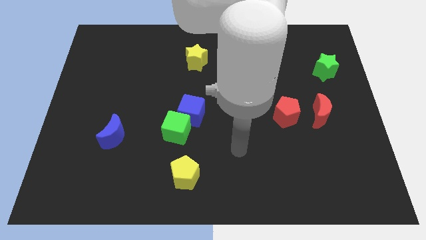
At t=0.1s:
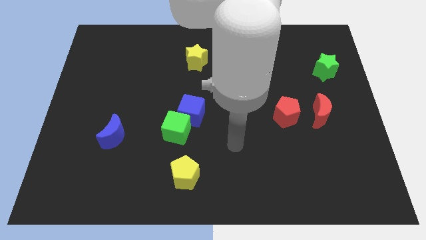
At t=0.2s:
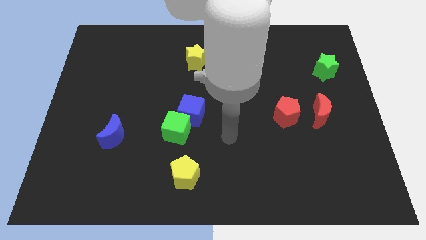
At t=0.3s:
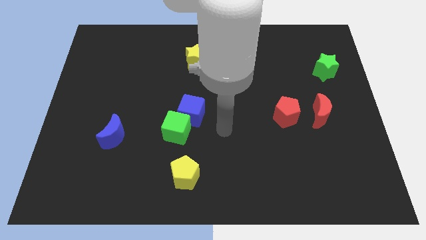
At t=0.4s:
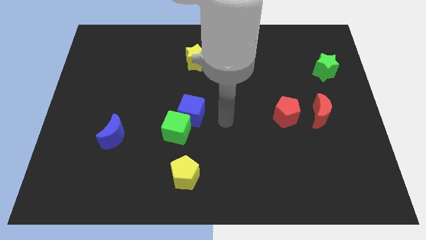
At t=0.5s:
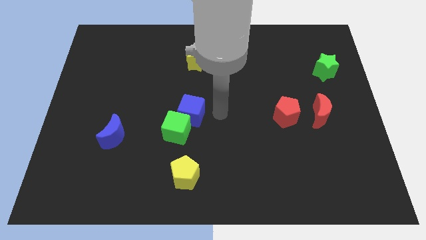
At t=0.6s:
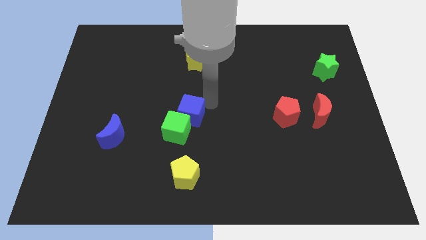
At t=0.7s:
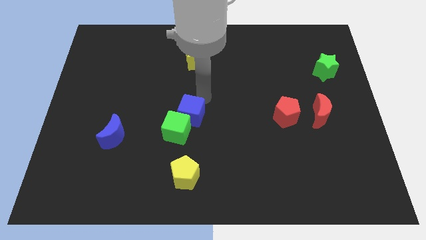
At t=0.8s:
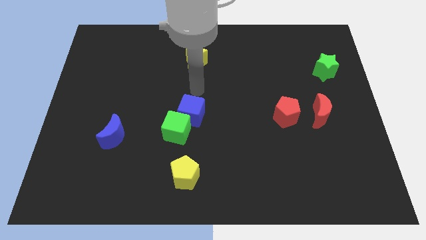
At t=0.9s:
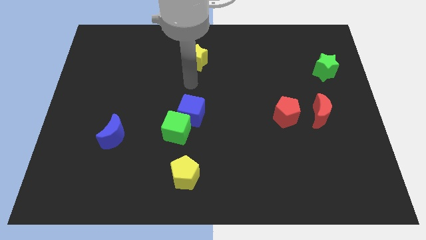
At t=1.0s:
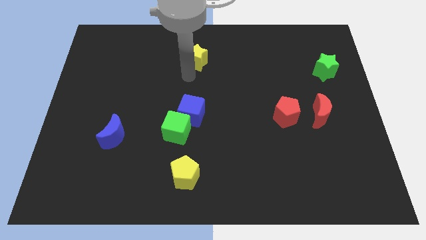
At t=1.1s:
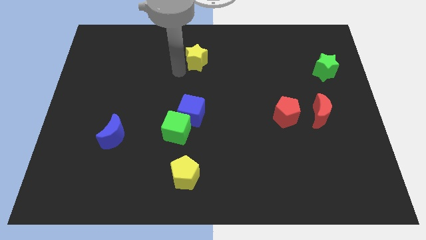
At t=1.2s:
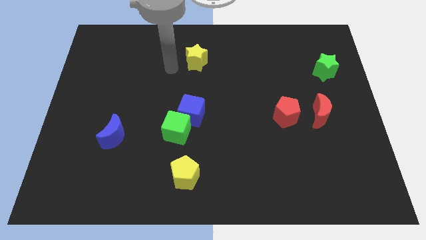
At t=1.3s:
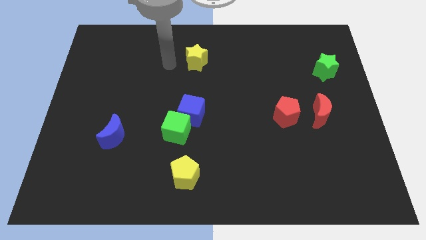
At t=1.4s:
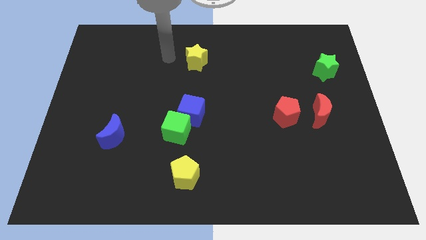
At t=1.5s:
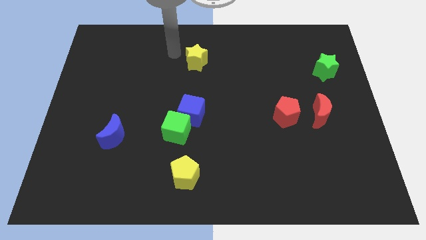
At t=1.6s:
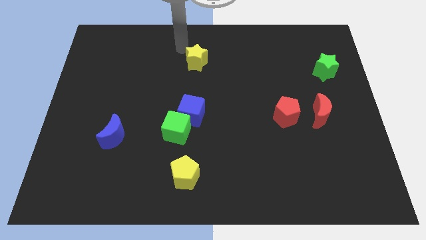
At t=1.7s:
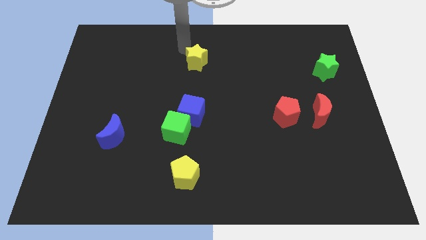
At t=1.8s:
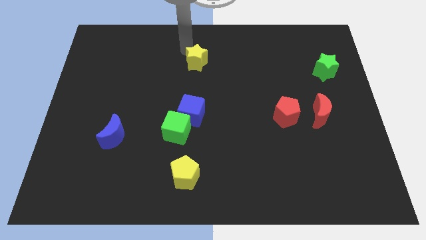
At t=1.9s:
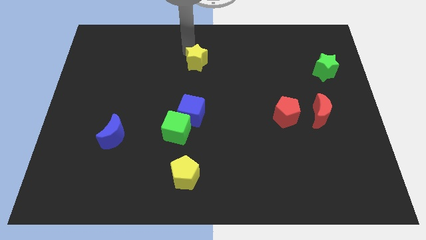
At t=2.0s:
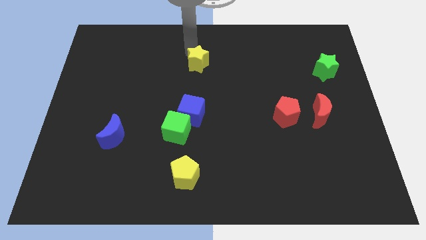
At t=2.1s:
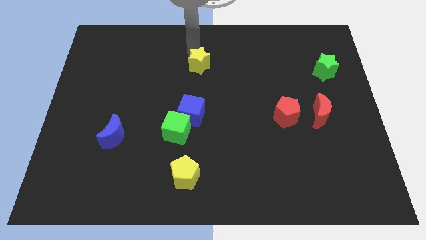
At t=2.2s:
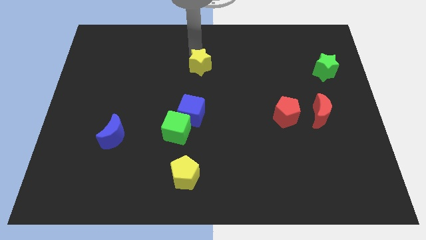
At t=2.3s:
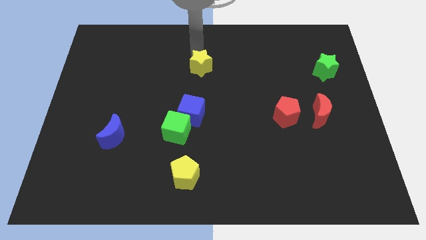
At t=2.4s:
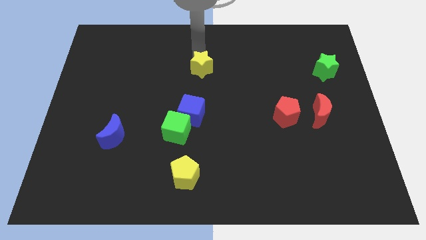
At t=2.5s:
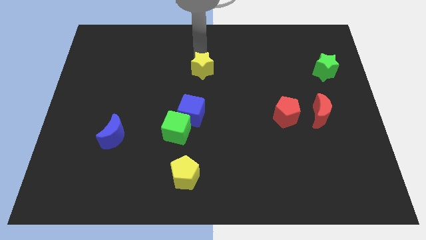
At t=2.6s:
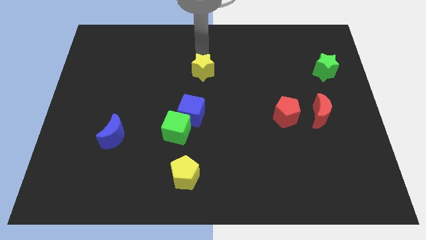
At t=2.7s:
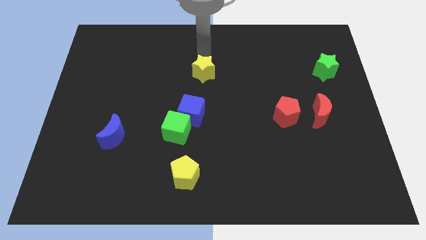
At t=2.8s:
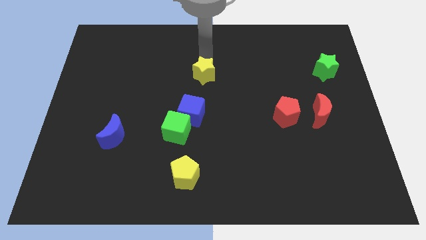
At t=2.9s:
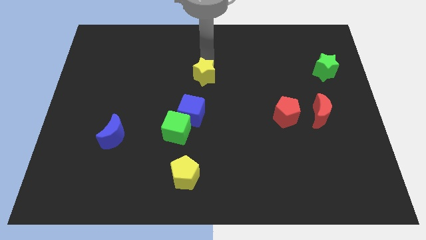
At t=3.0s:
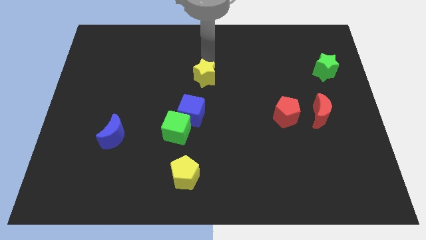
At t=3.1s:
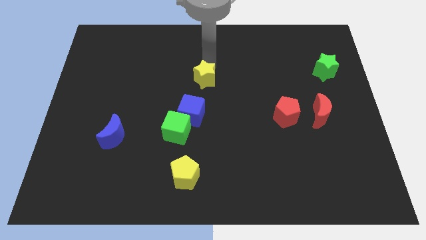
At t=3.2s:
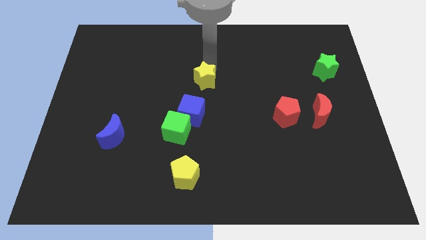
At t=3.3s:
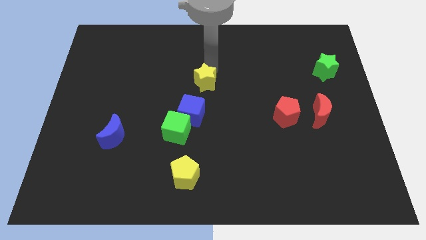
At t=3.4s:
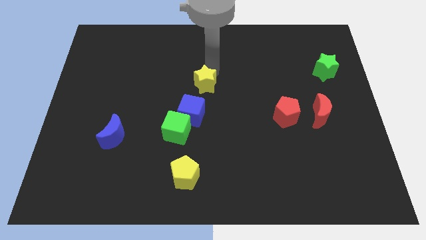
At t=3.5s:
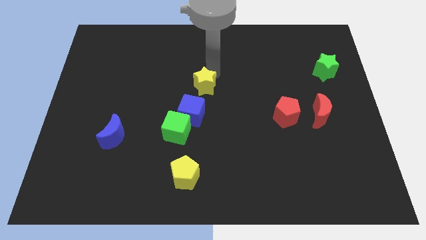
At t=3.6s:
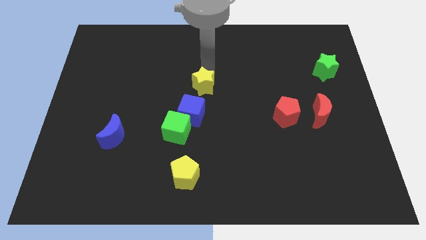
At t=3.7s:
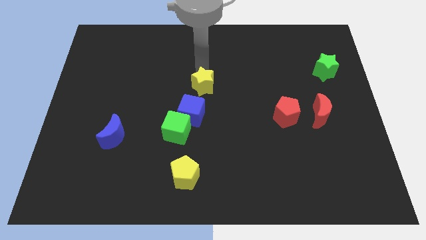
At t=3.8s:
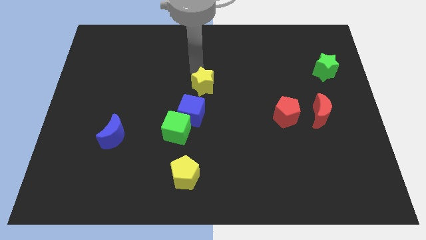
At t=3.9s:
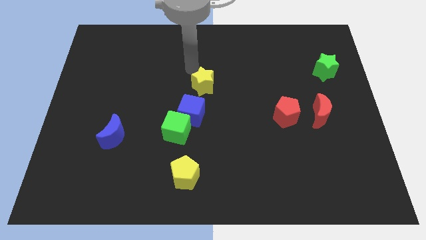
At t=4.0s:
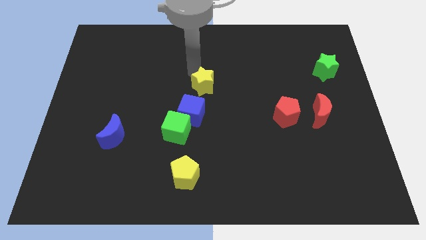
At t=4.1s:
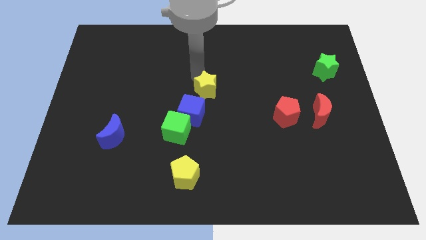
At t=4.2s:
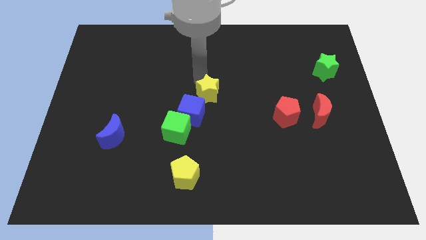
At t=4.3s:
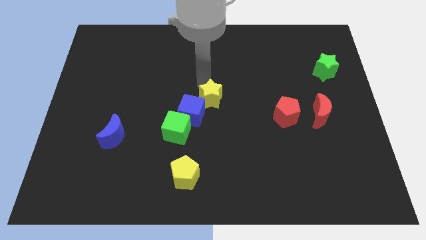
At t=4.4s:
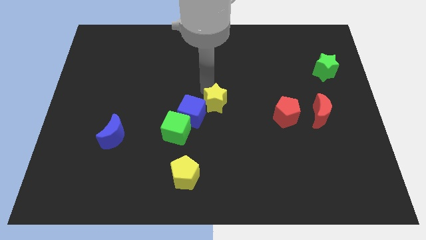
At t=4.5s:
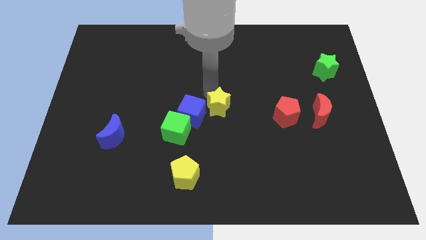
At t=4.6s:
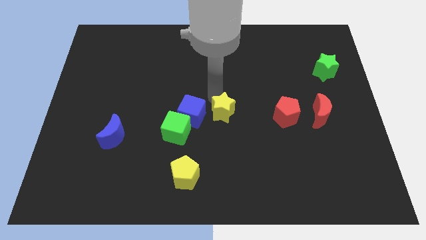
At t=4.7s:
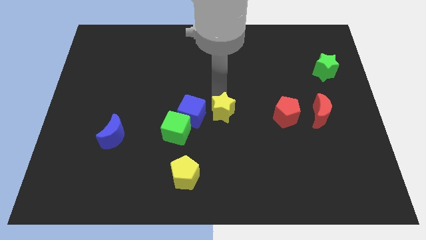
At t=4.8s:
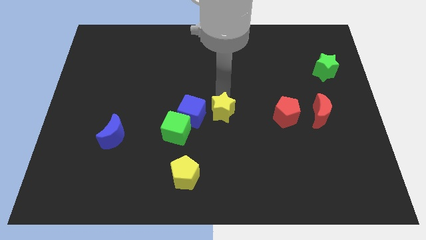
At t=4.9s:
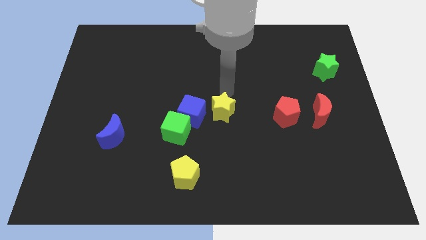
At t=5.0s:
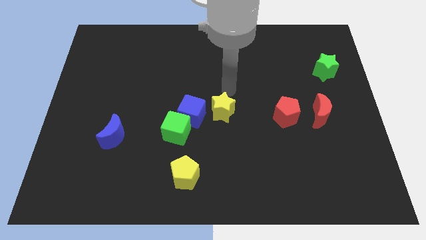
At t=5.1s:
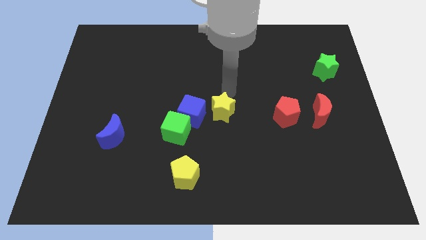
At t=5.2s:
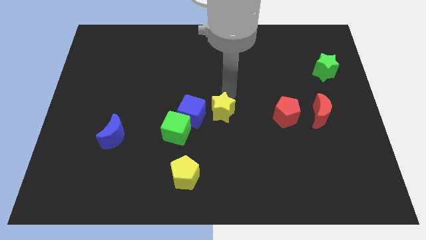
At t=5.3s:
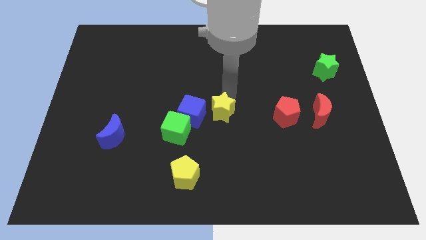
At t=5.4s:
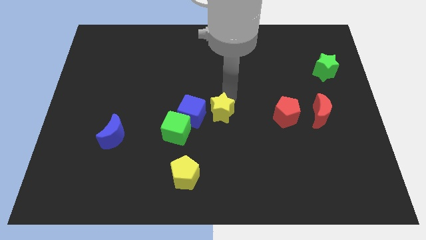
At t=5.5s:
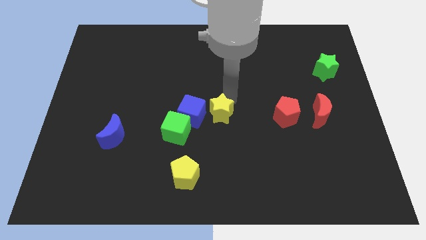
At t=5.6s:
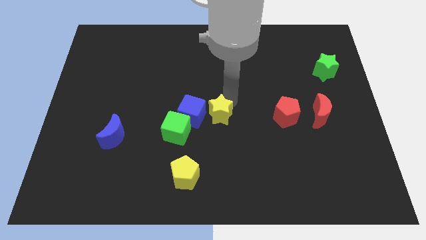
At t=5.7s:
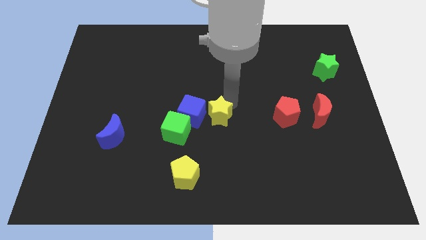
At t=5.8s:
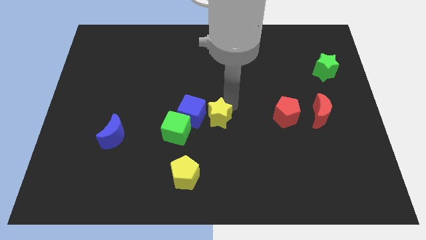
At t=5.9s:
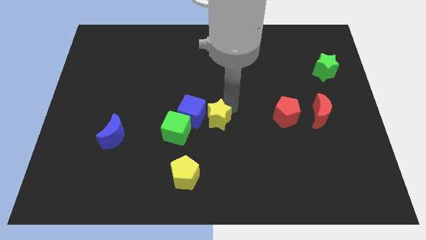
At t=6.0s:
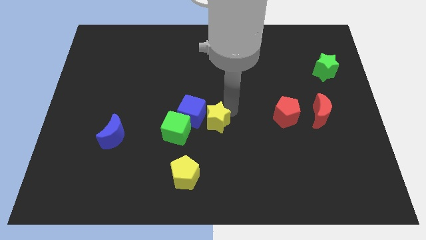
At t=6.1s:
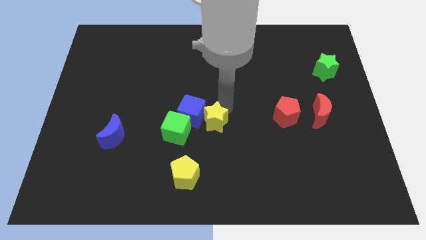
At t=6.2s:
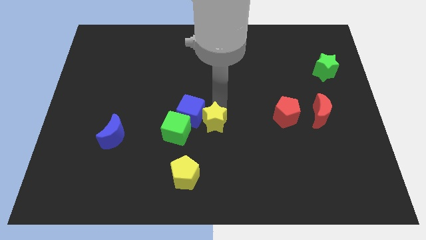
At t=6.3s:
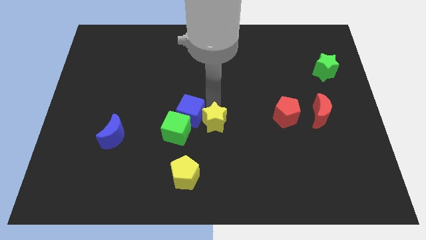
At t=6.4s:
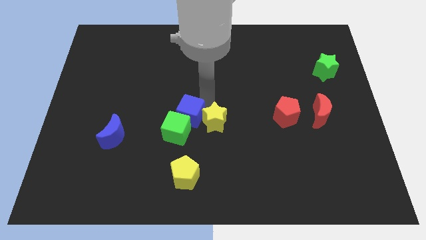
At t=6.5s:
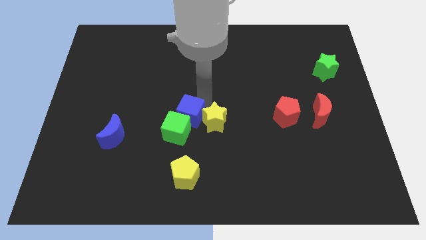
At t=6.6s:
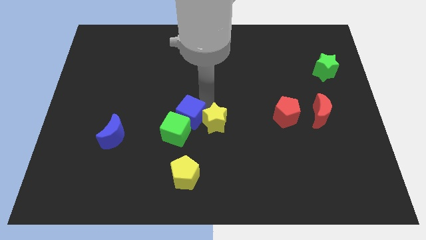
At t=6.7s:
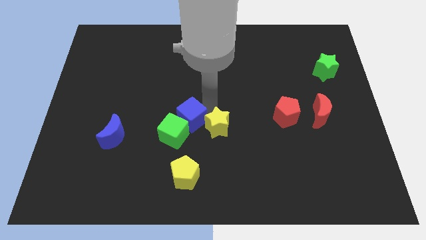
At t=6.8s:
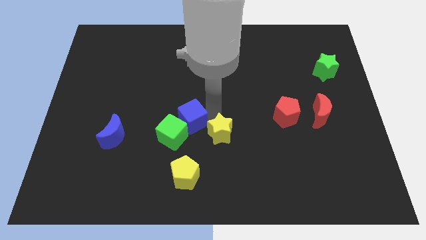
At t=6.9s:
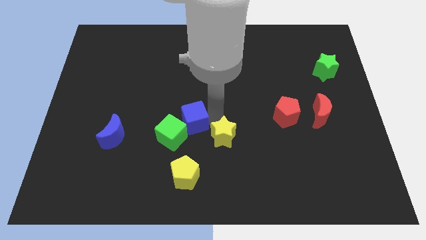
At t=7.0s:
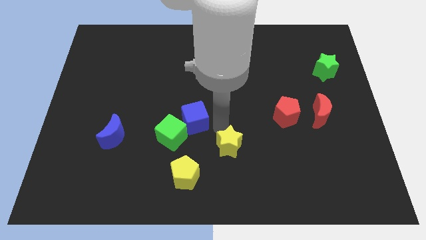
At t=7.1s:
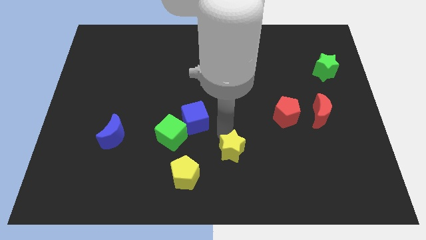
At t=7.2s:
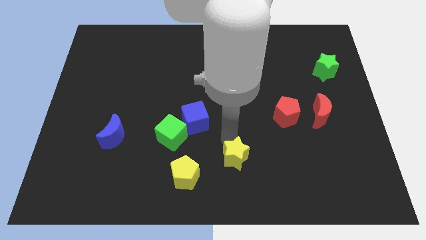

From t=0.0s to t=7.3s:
push the yellow star just right of the yellow pentagon
